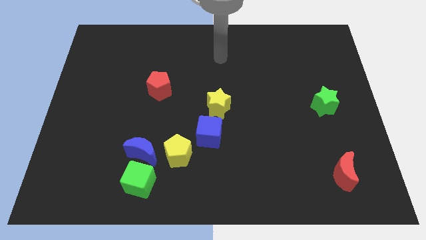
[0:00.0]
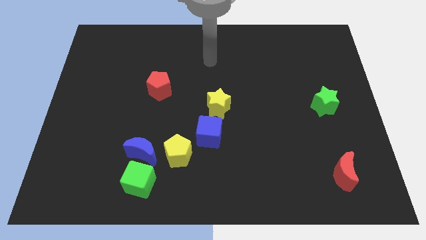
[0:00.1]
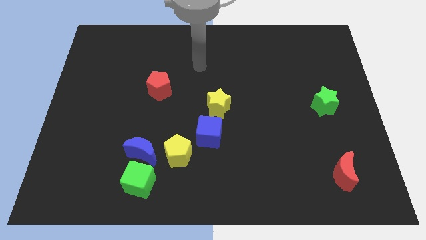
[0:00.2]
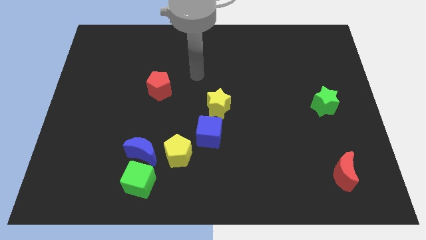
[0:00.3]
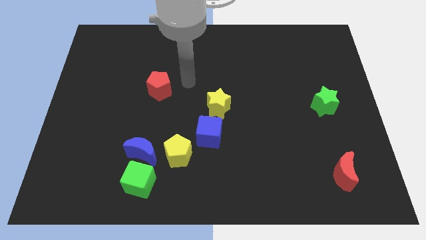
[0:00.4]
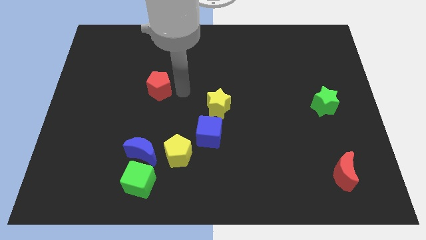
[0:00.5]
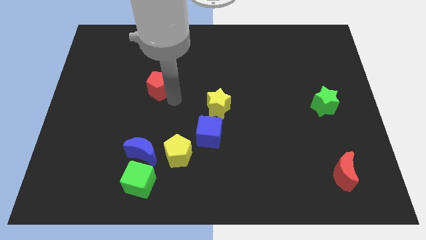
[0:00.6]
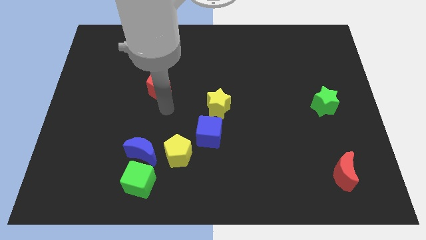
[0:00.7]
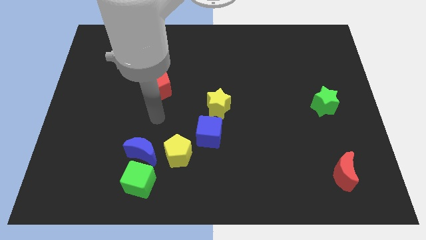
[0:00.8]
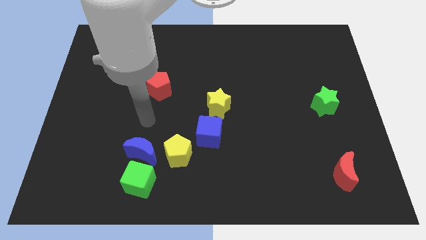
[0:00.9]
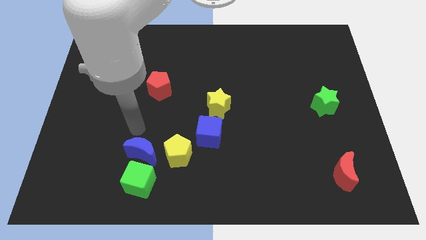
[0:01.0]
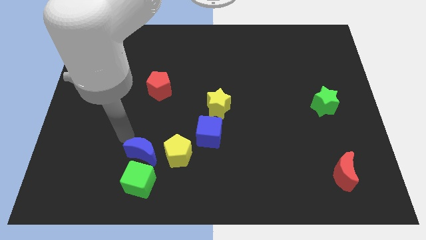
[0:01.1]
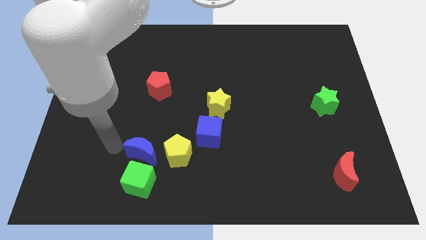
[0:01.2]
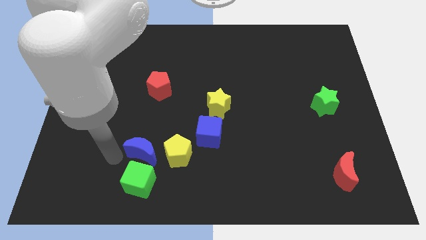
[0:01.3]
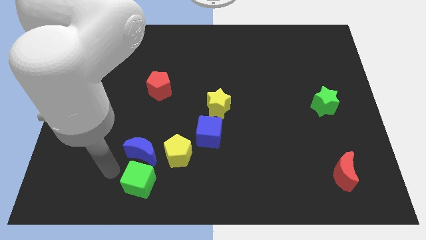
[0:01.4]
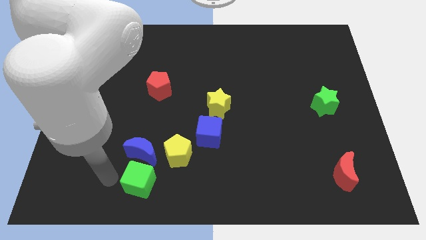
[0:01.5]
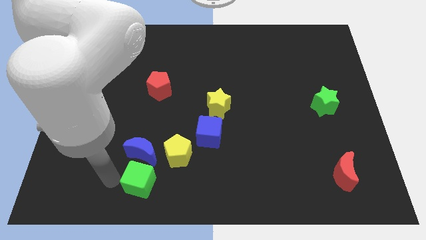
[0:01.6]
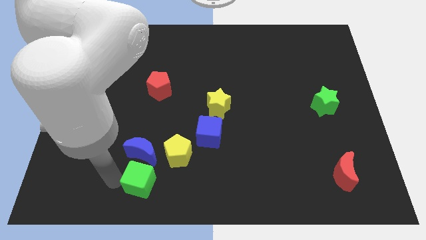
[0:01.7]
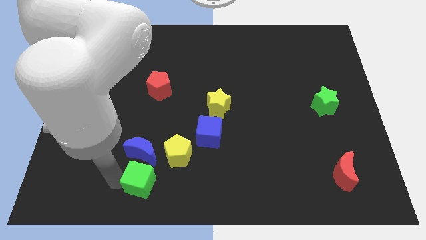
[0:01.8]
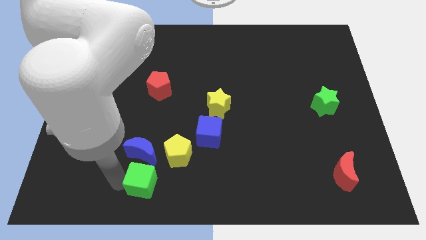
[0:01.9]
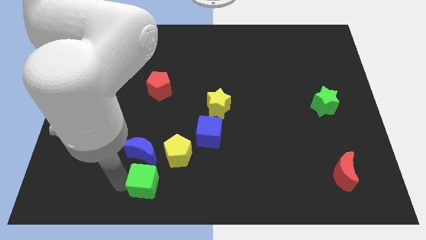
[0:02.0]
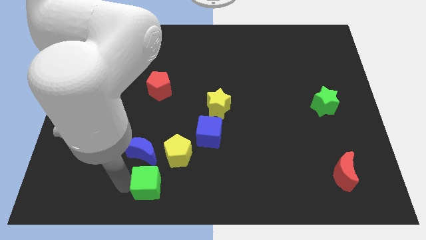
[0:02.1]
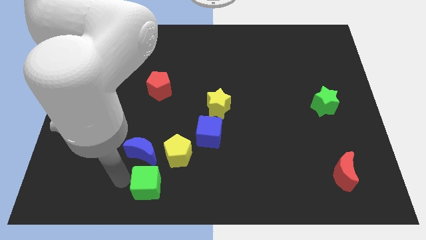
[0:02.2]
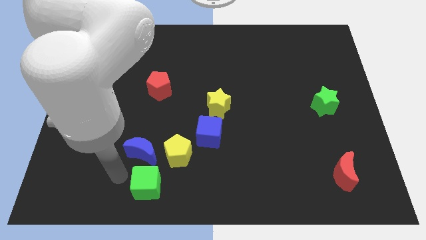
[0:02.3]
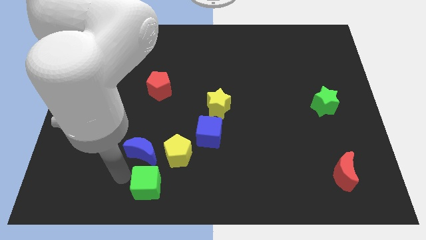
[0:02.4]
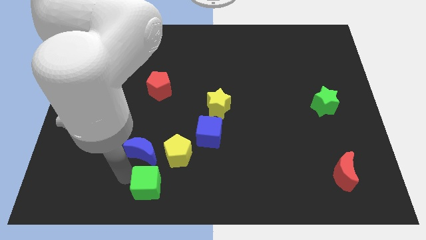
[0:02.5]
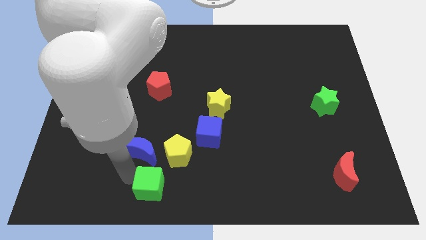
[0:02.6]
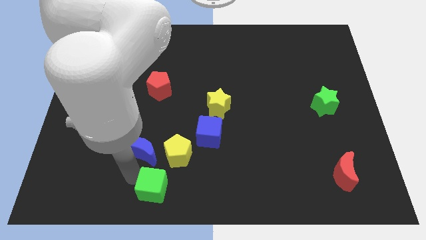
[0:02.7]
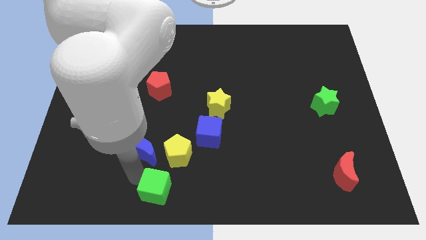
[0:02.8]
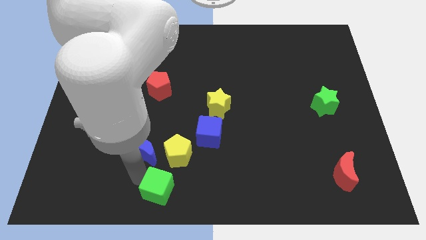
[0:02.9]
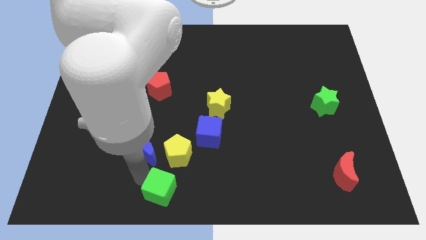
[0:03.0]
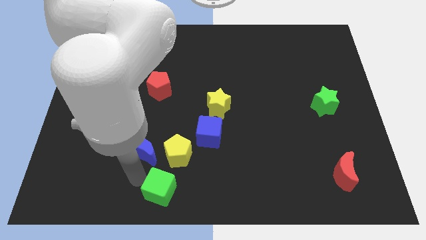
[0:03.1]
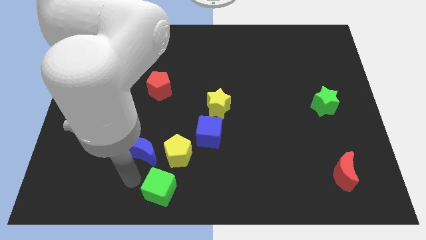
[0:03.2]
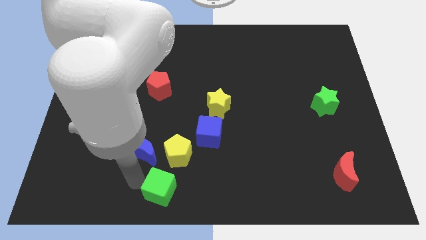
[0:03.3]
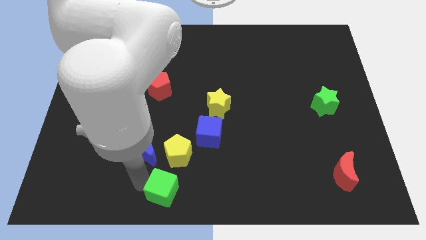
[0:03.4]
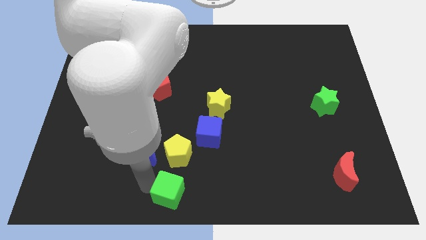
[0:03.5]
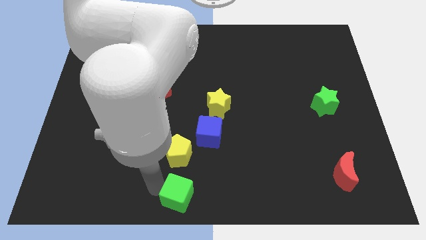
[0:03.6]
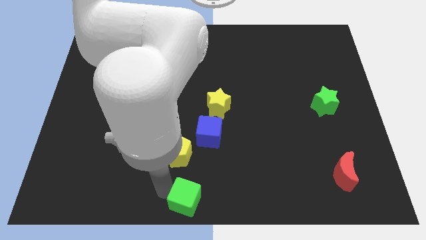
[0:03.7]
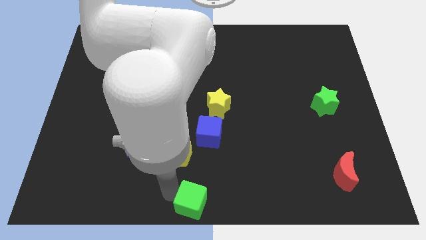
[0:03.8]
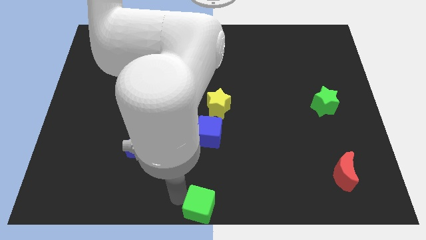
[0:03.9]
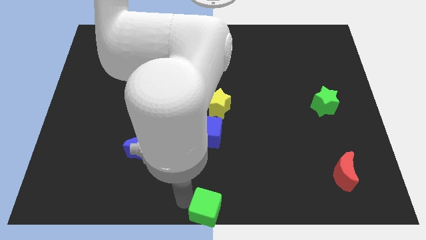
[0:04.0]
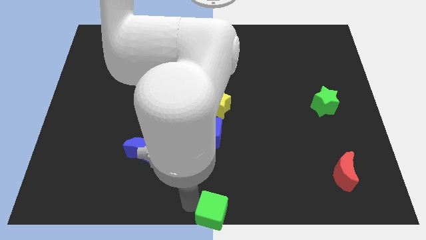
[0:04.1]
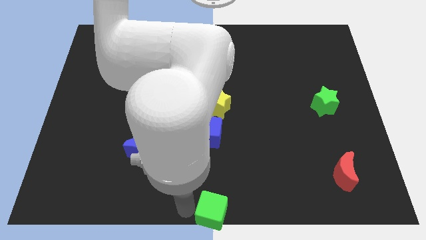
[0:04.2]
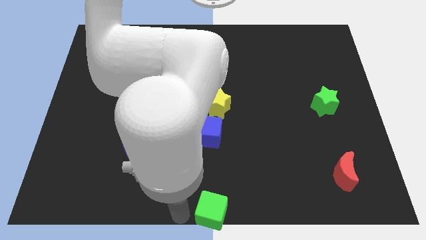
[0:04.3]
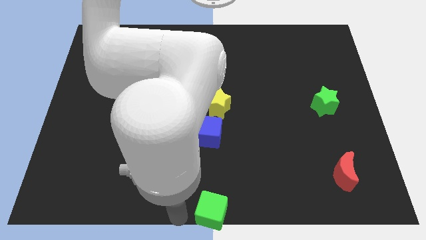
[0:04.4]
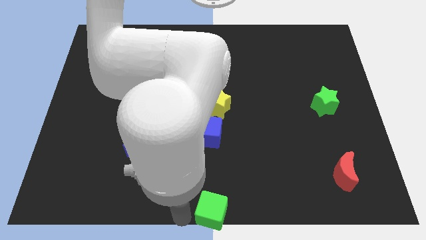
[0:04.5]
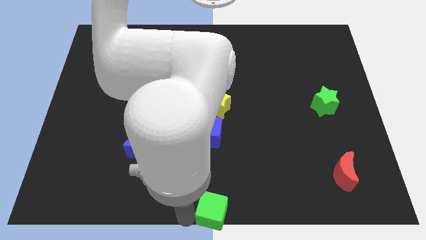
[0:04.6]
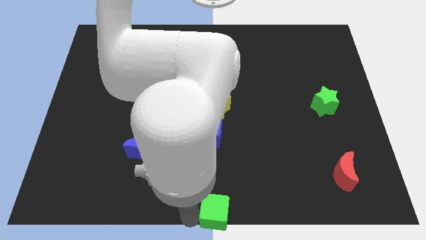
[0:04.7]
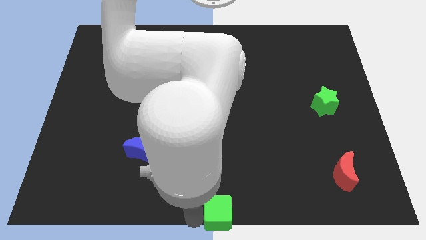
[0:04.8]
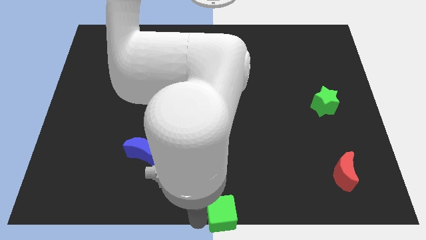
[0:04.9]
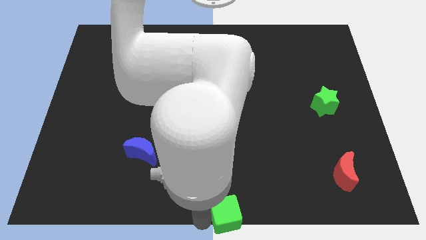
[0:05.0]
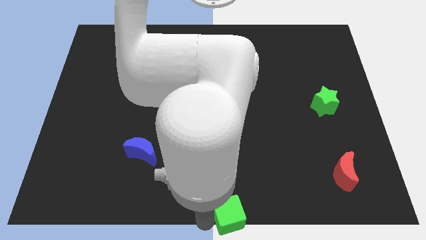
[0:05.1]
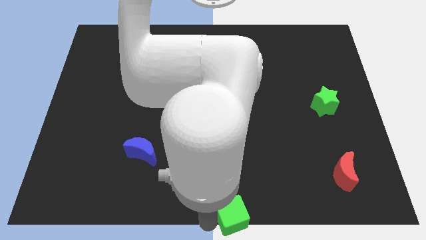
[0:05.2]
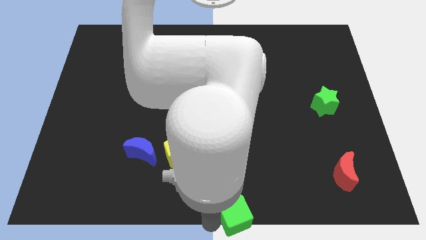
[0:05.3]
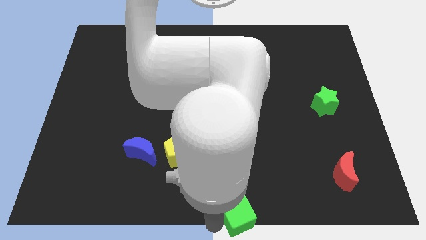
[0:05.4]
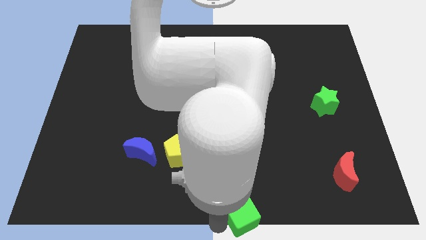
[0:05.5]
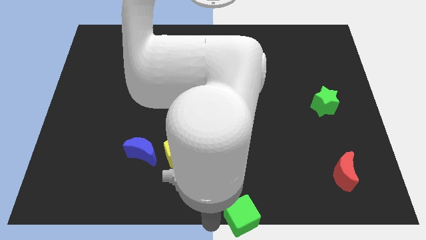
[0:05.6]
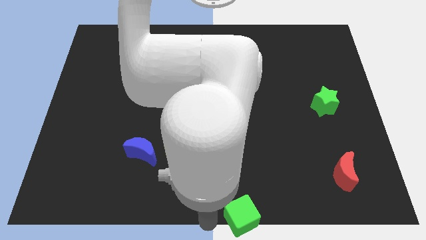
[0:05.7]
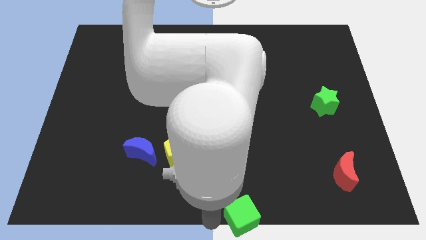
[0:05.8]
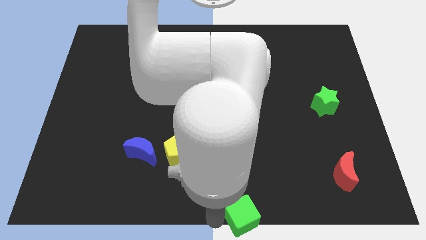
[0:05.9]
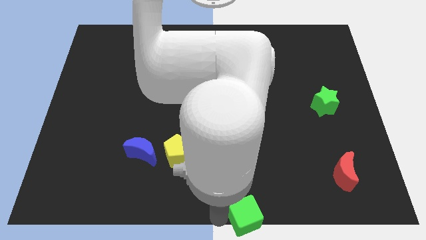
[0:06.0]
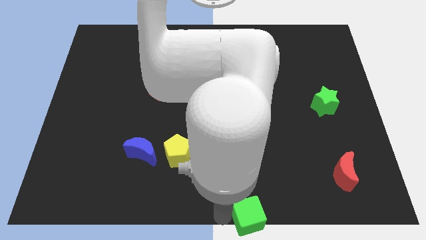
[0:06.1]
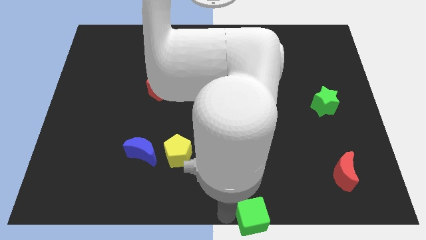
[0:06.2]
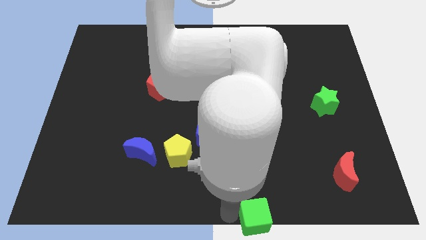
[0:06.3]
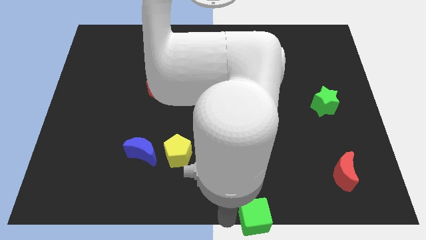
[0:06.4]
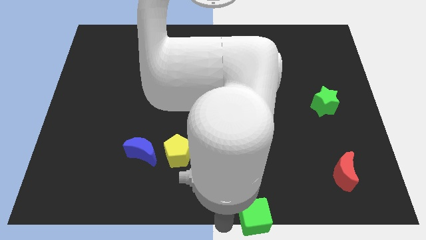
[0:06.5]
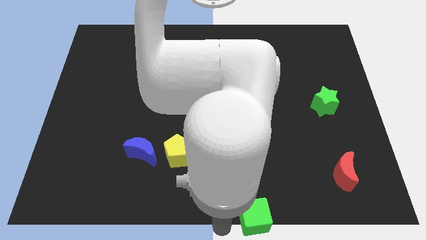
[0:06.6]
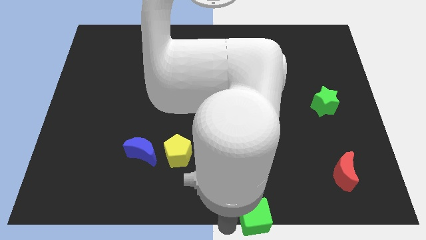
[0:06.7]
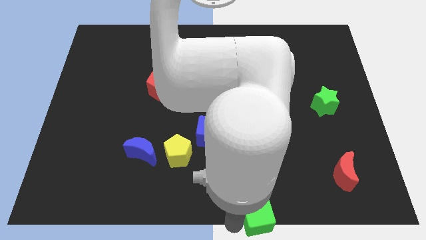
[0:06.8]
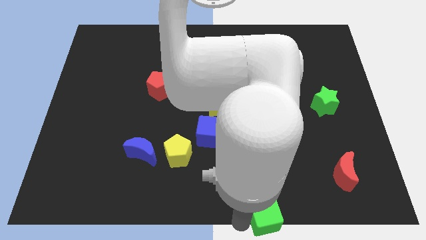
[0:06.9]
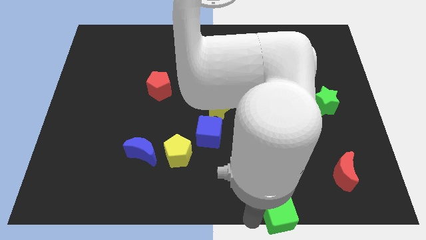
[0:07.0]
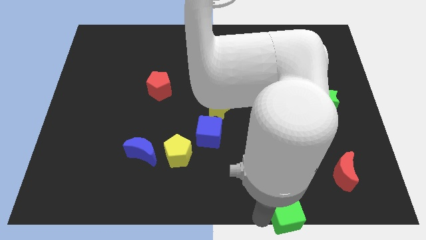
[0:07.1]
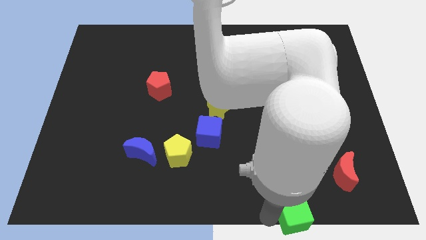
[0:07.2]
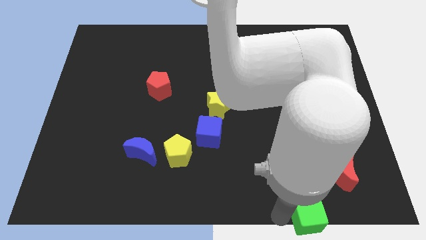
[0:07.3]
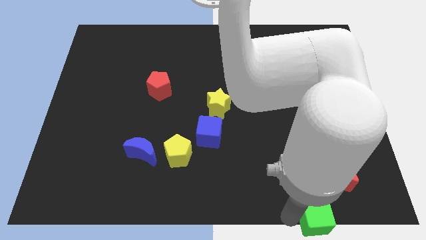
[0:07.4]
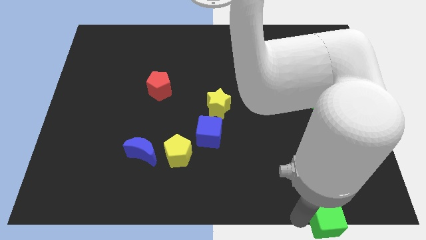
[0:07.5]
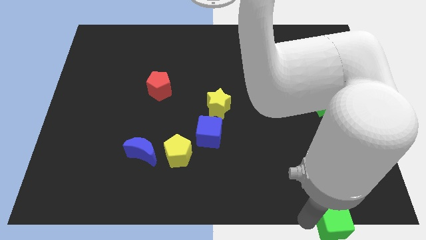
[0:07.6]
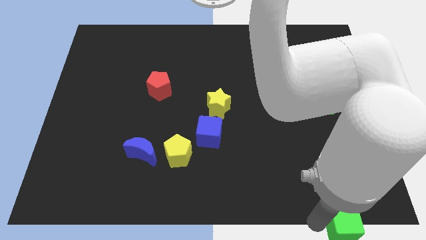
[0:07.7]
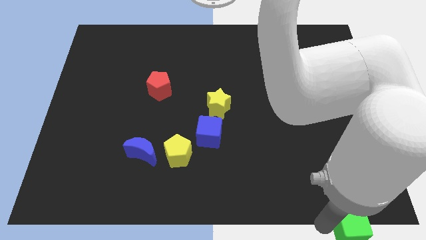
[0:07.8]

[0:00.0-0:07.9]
push the green cube to the bottom right corner
